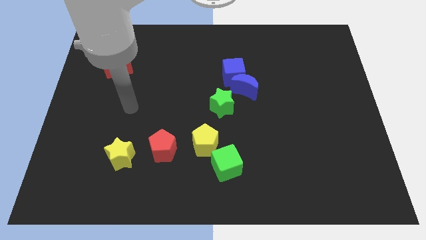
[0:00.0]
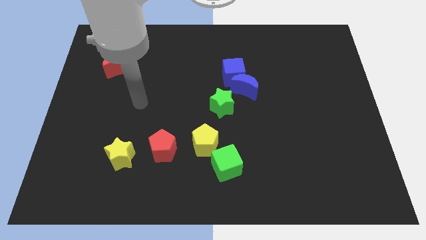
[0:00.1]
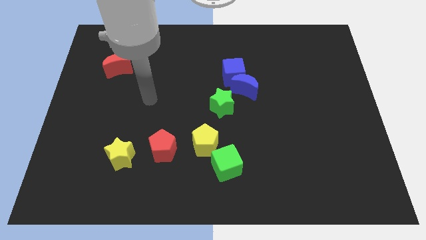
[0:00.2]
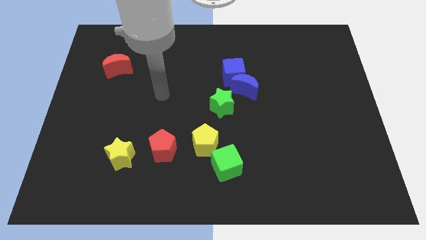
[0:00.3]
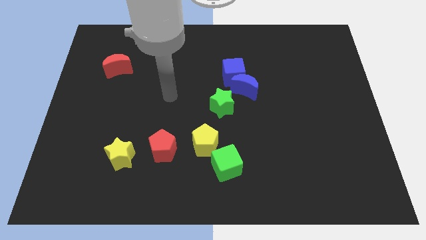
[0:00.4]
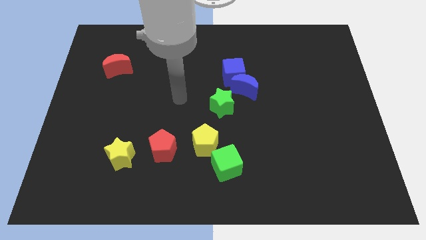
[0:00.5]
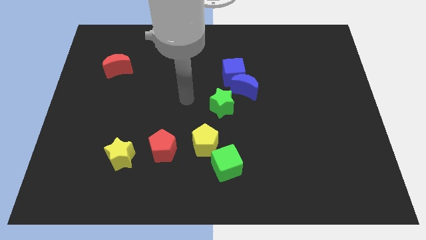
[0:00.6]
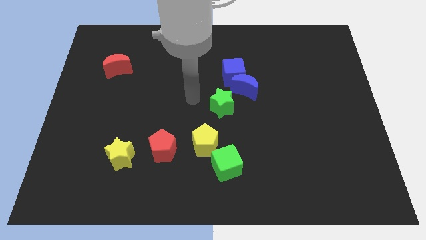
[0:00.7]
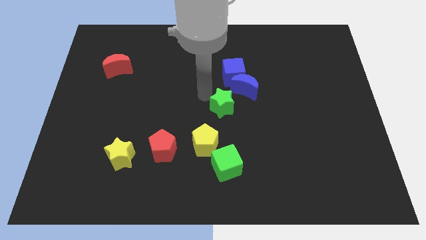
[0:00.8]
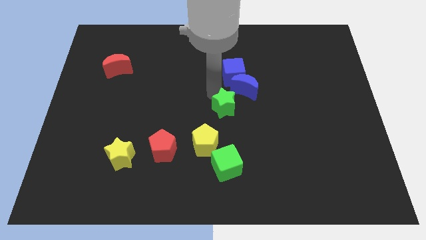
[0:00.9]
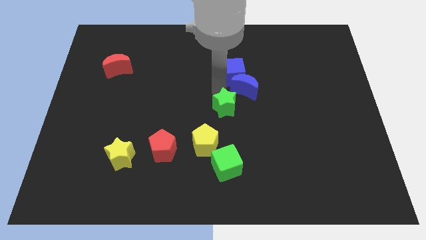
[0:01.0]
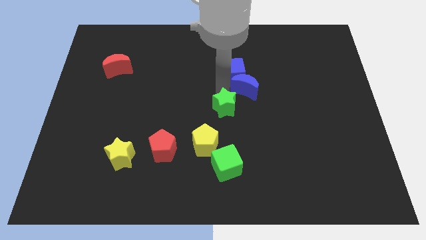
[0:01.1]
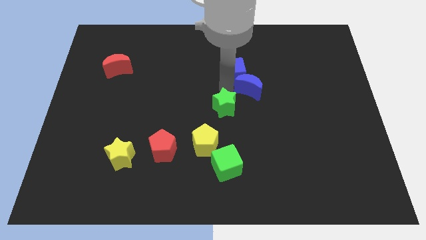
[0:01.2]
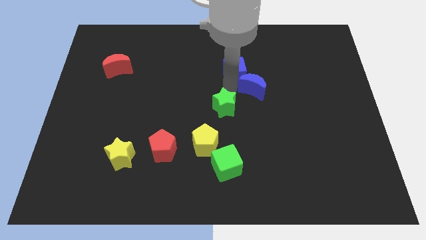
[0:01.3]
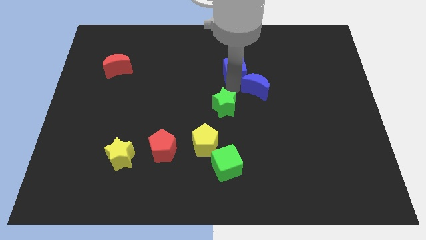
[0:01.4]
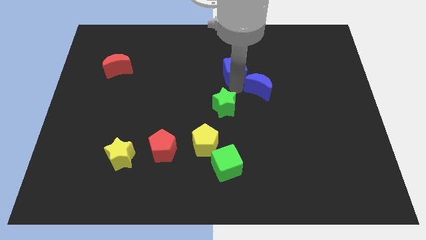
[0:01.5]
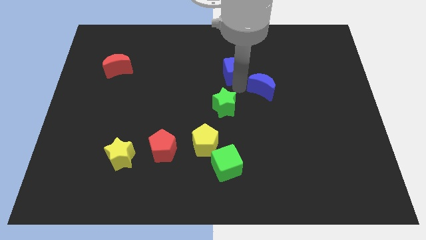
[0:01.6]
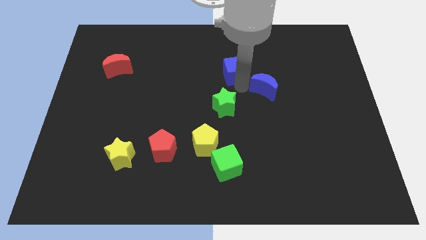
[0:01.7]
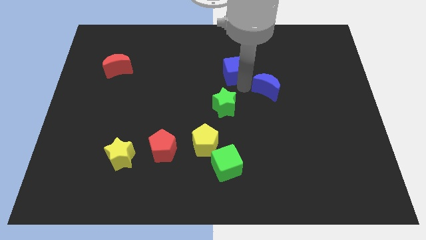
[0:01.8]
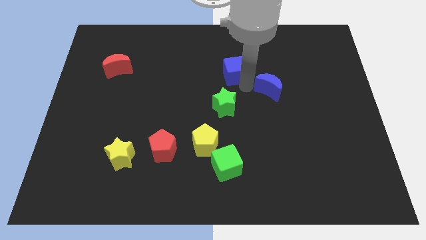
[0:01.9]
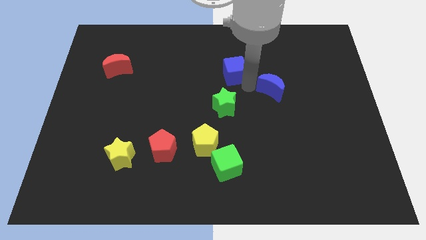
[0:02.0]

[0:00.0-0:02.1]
move the blue moon away from the blue cube and green star

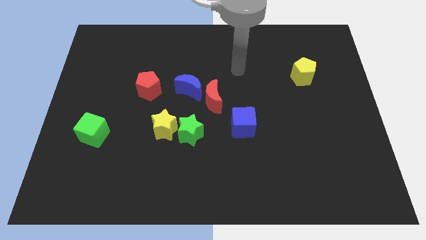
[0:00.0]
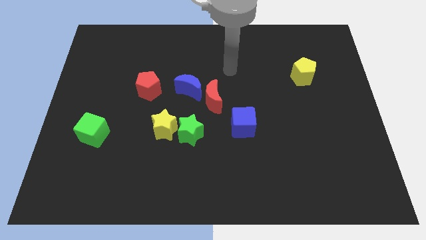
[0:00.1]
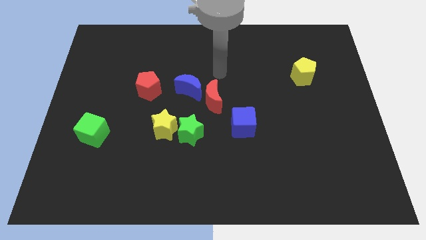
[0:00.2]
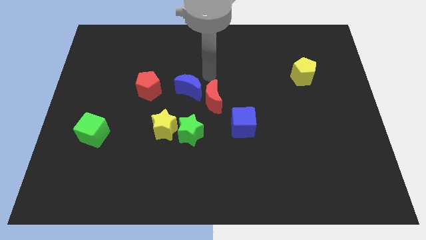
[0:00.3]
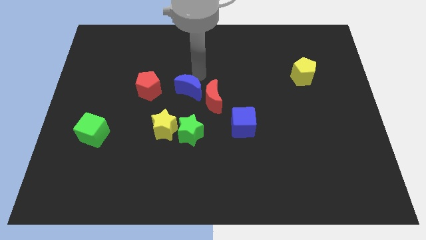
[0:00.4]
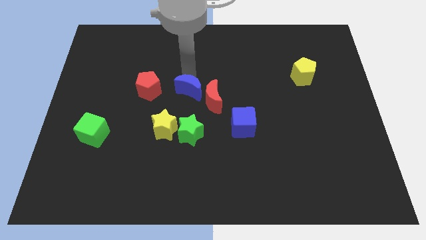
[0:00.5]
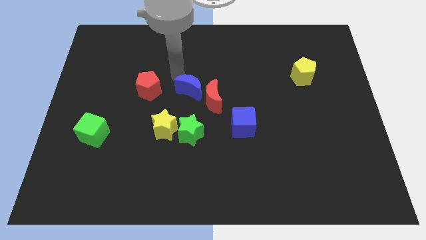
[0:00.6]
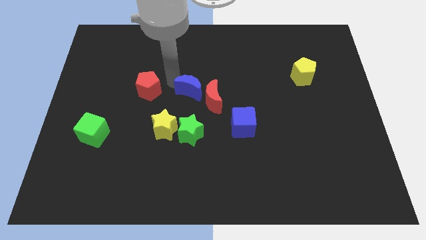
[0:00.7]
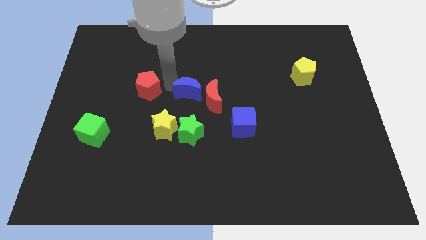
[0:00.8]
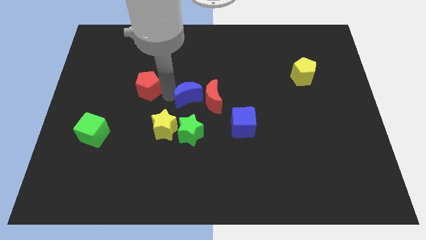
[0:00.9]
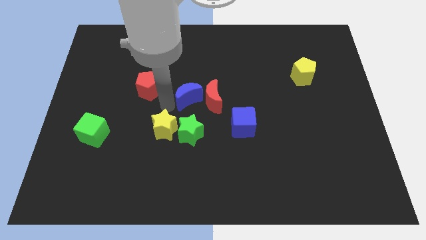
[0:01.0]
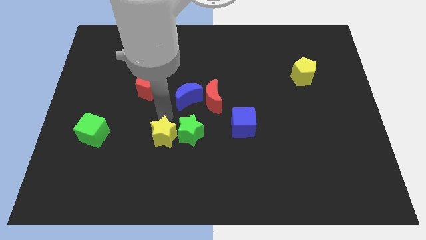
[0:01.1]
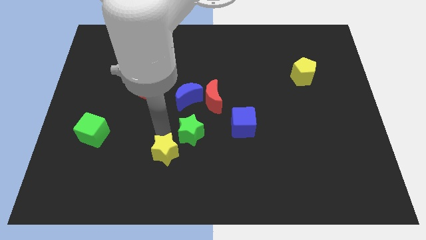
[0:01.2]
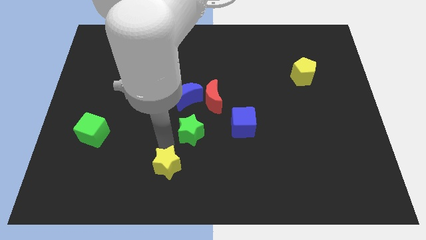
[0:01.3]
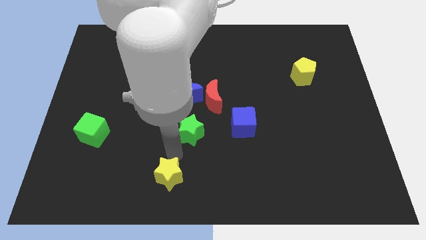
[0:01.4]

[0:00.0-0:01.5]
separate the green star from the yellow star

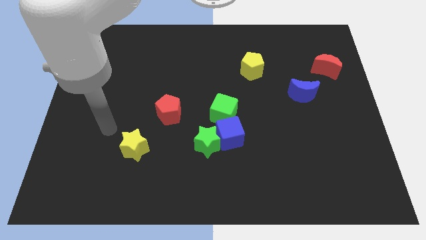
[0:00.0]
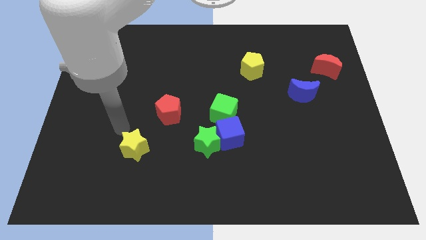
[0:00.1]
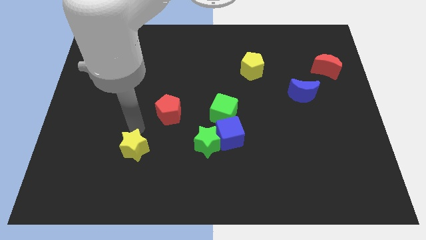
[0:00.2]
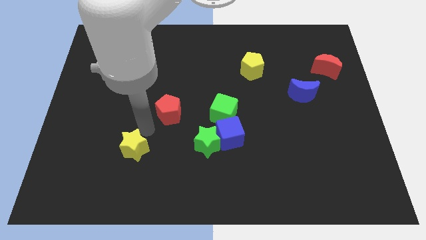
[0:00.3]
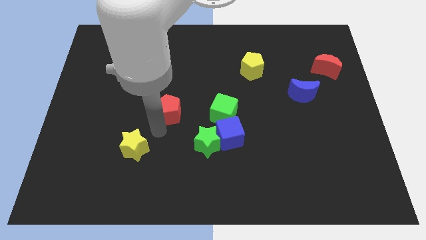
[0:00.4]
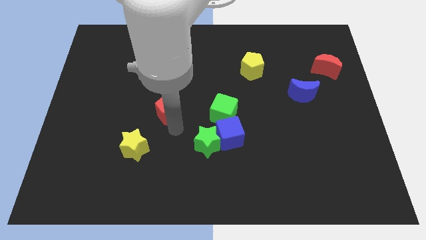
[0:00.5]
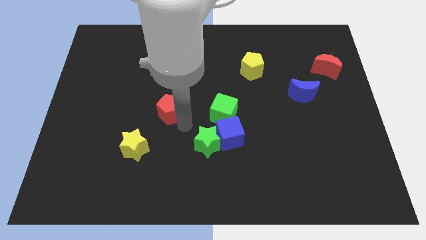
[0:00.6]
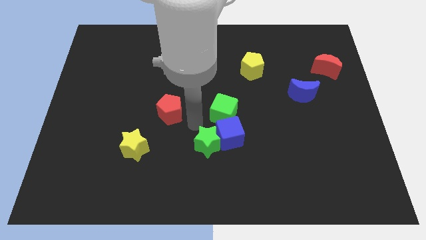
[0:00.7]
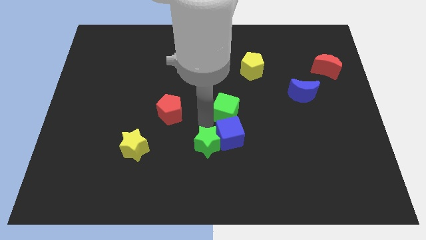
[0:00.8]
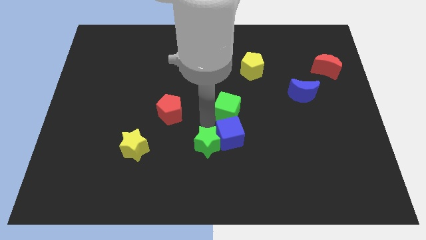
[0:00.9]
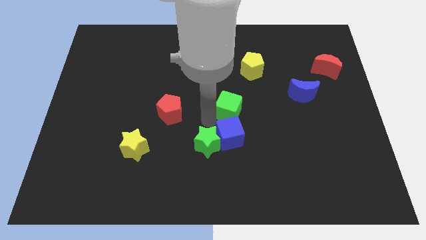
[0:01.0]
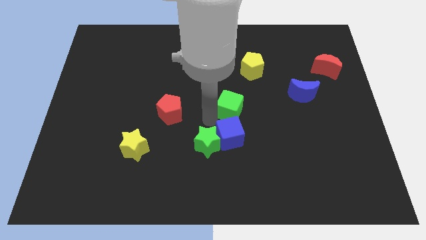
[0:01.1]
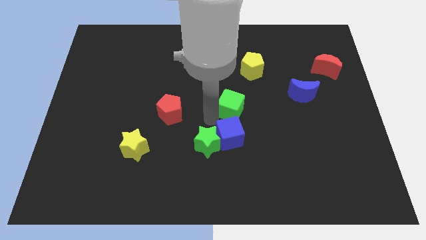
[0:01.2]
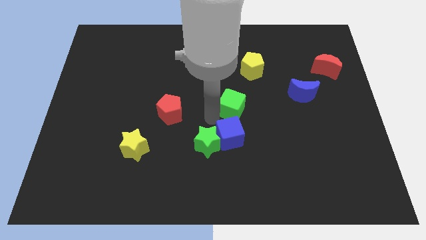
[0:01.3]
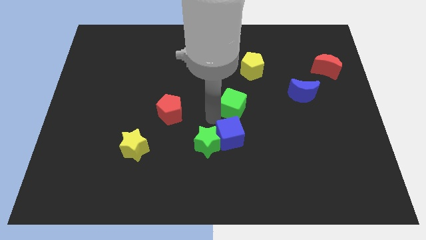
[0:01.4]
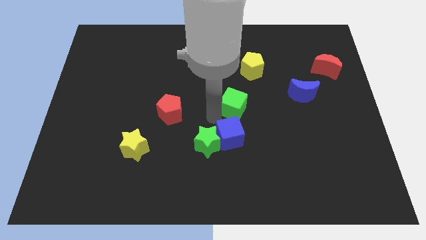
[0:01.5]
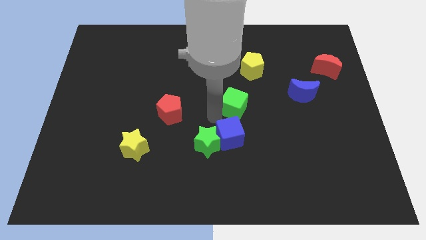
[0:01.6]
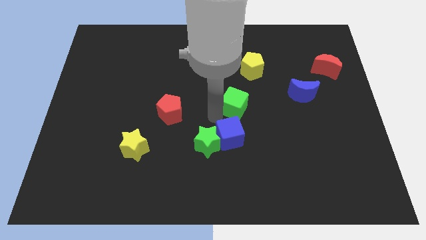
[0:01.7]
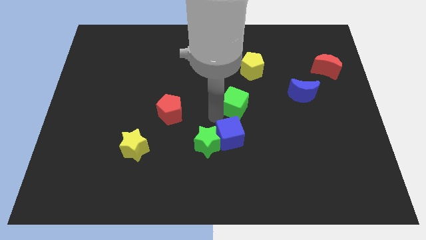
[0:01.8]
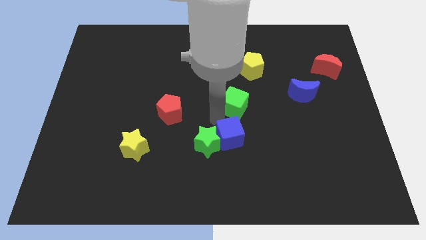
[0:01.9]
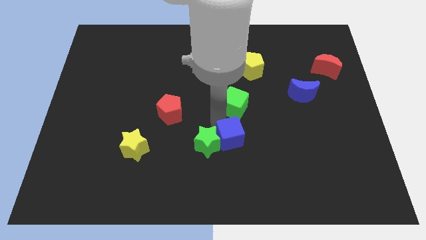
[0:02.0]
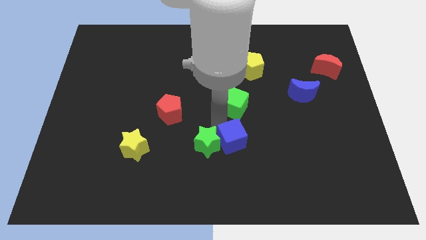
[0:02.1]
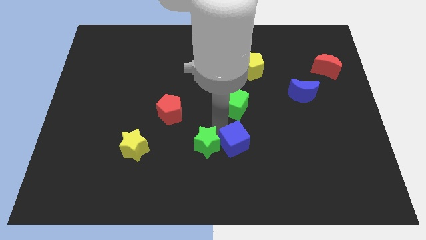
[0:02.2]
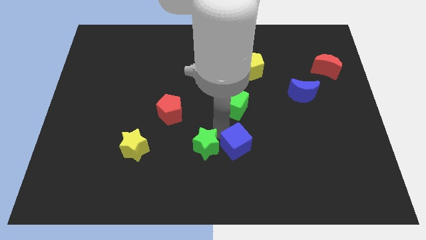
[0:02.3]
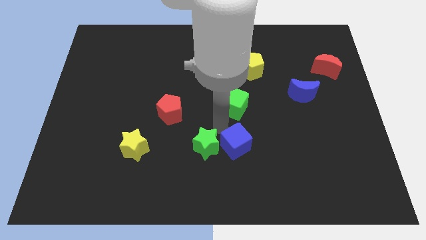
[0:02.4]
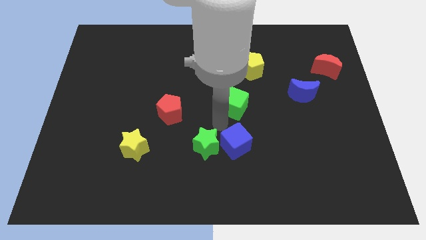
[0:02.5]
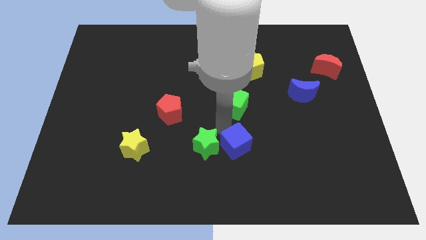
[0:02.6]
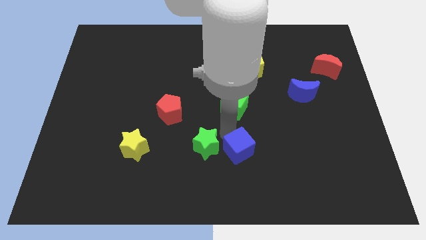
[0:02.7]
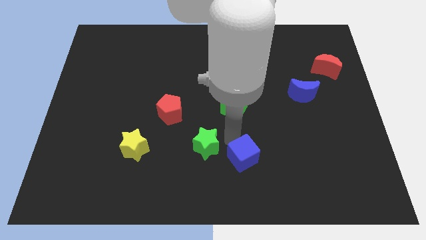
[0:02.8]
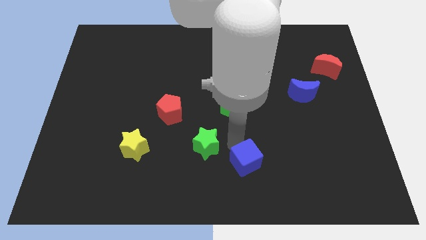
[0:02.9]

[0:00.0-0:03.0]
move the blue cube away from the green star and green cube

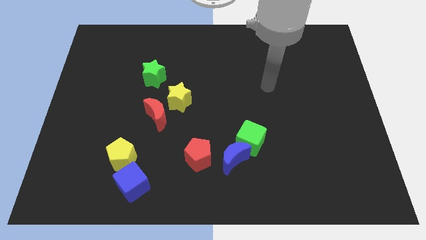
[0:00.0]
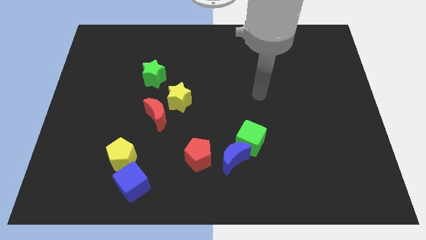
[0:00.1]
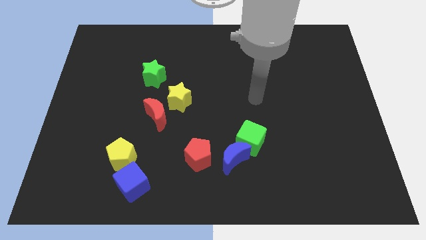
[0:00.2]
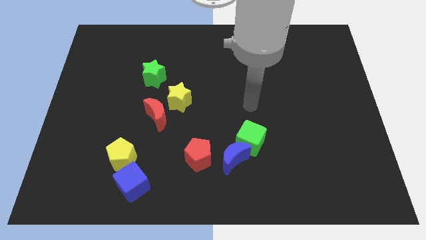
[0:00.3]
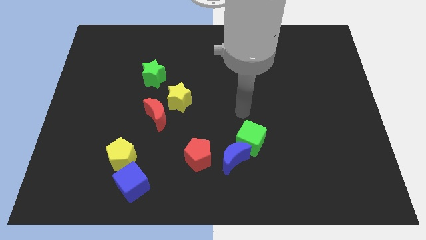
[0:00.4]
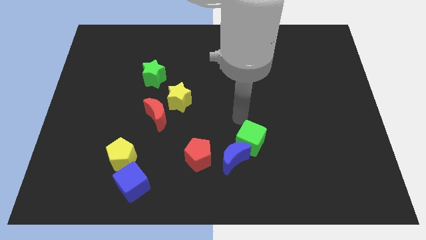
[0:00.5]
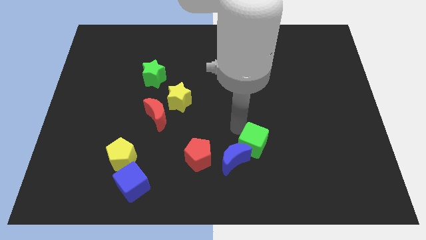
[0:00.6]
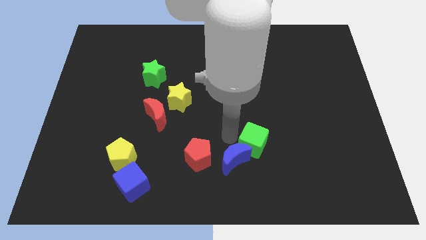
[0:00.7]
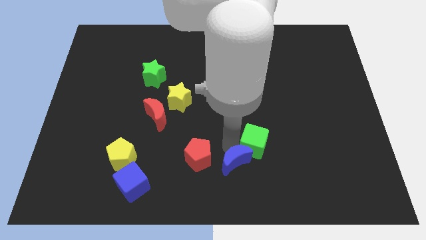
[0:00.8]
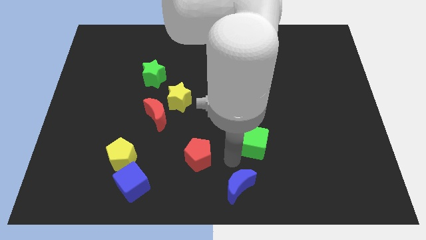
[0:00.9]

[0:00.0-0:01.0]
separate the green cube from the blue moon

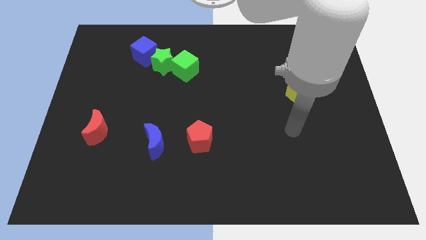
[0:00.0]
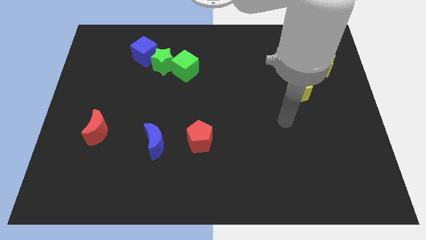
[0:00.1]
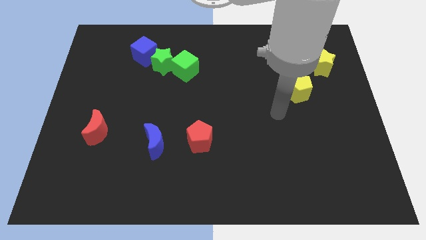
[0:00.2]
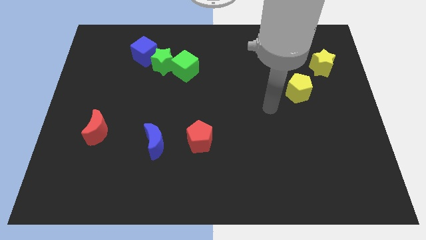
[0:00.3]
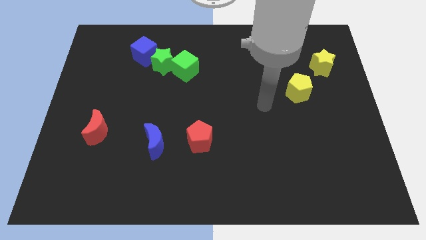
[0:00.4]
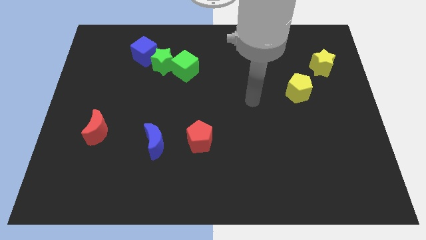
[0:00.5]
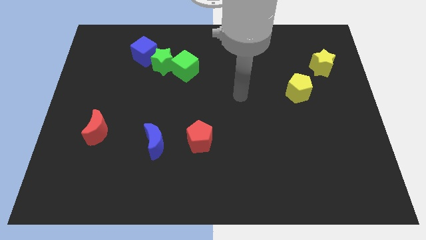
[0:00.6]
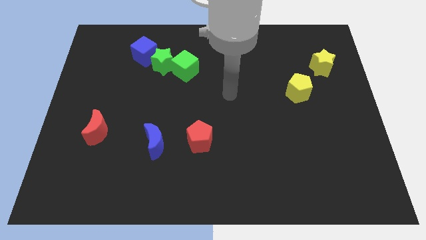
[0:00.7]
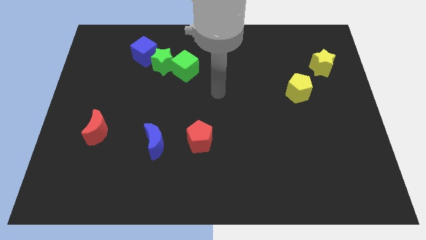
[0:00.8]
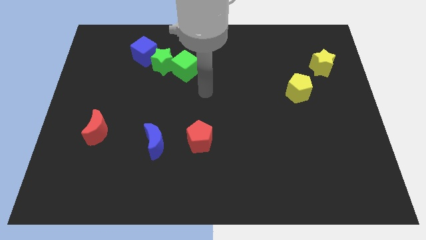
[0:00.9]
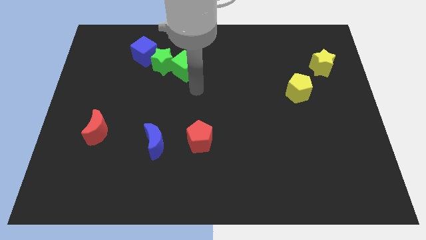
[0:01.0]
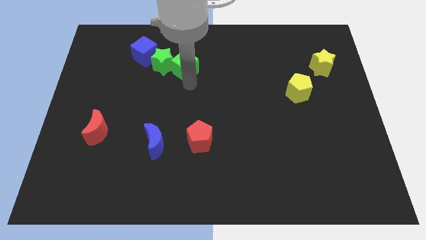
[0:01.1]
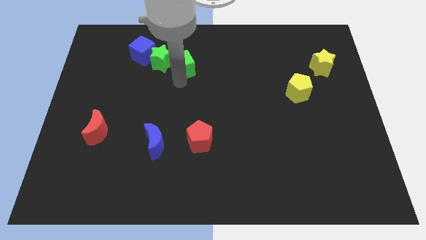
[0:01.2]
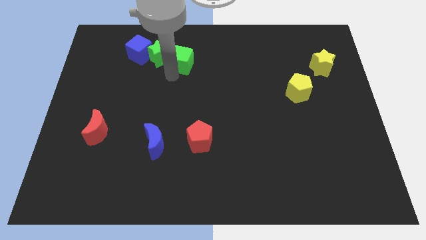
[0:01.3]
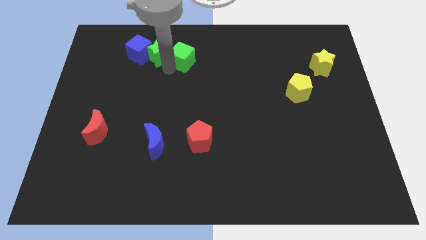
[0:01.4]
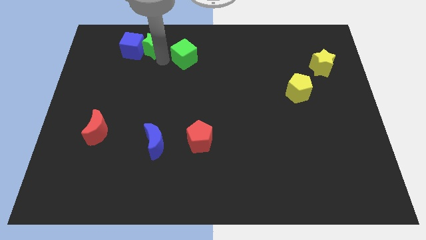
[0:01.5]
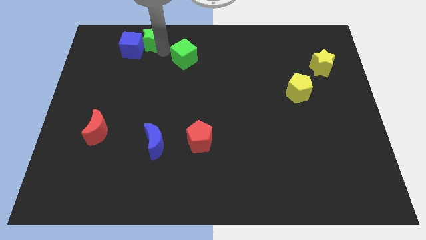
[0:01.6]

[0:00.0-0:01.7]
separate the green cube from the green star
